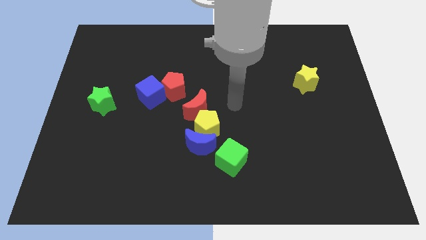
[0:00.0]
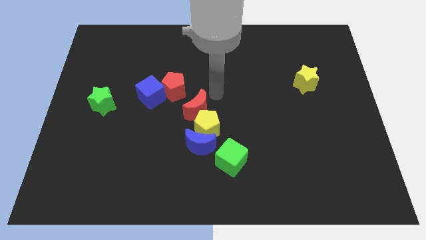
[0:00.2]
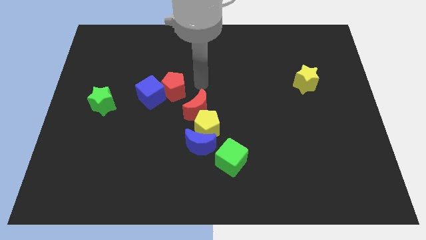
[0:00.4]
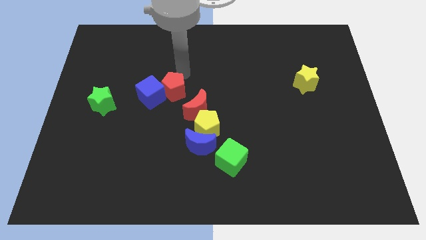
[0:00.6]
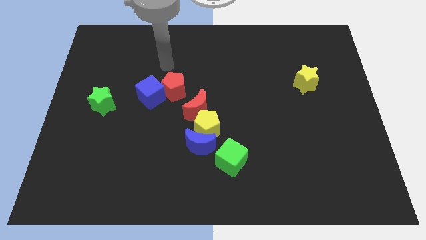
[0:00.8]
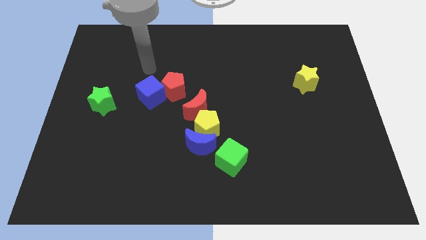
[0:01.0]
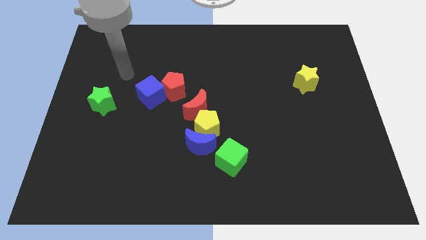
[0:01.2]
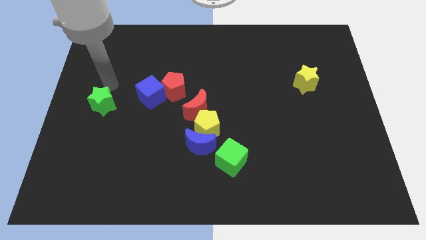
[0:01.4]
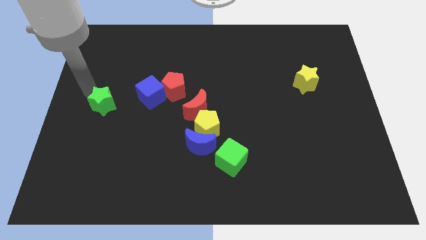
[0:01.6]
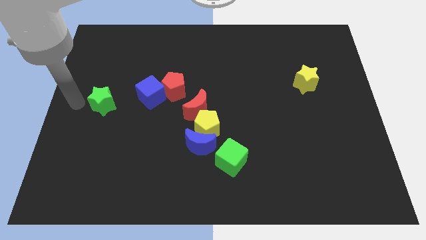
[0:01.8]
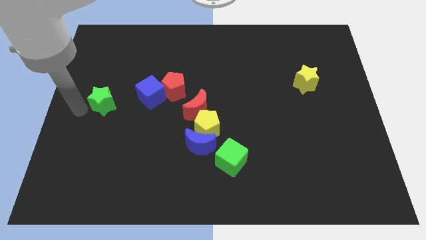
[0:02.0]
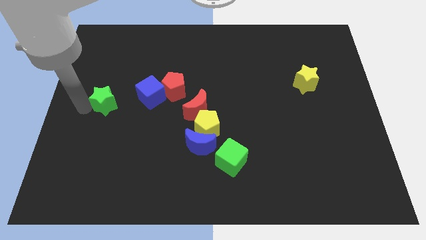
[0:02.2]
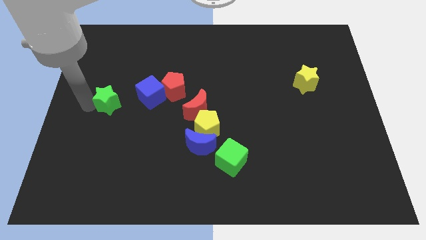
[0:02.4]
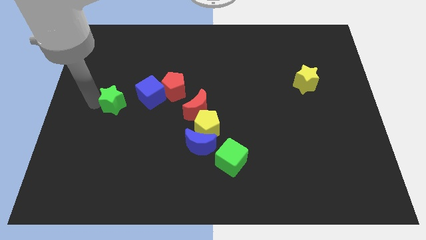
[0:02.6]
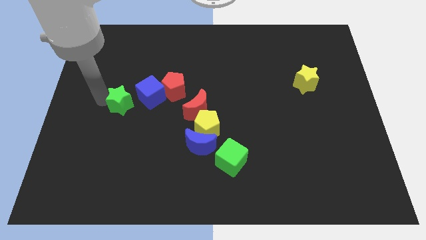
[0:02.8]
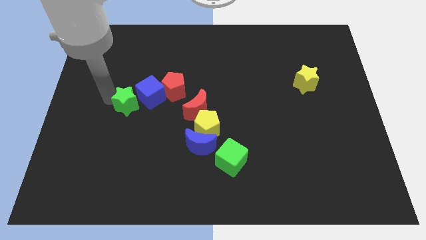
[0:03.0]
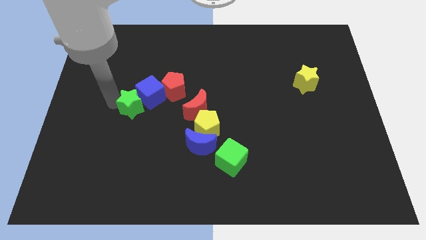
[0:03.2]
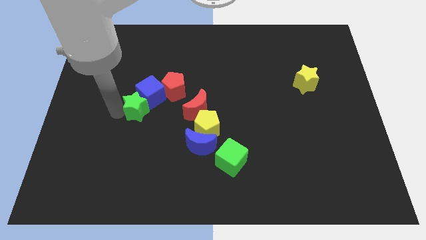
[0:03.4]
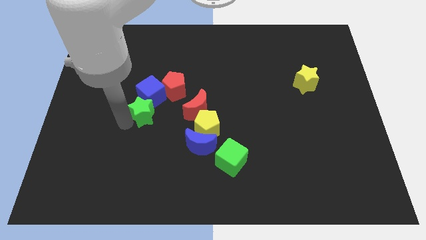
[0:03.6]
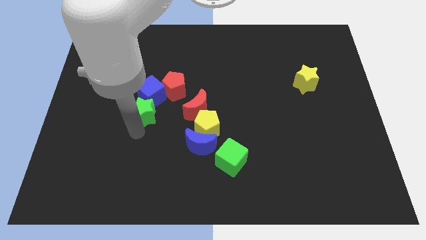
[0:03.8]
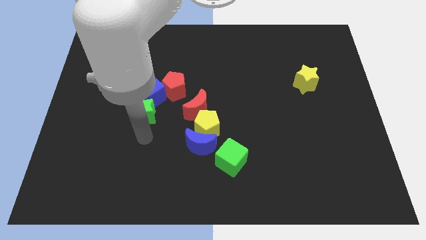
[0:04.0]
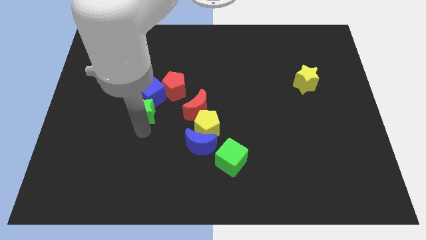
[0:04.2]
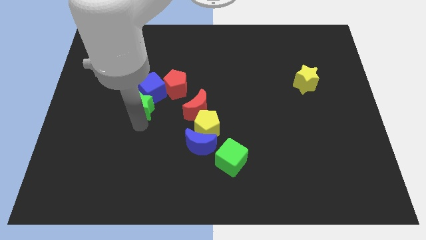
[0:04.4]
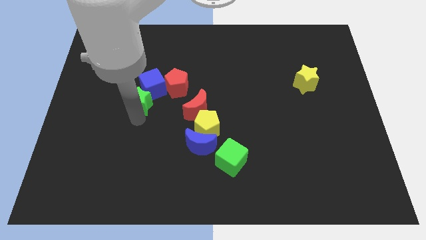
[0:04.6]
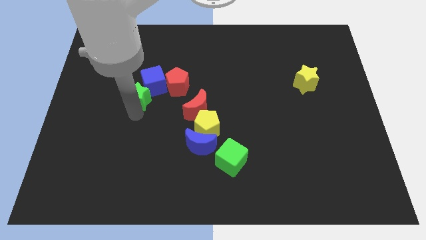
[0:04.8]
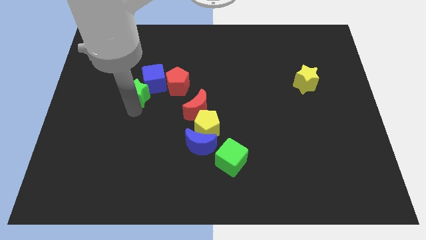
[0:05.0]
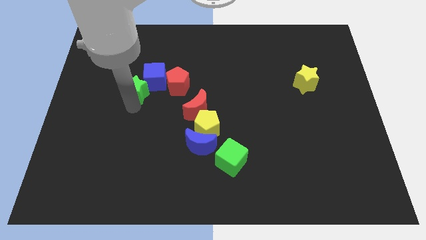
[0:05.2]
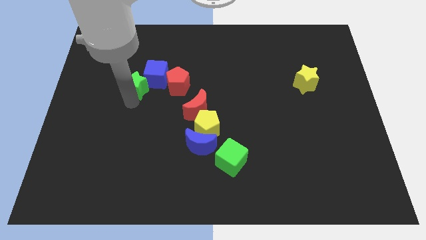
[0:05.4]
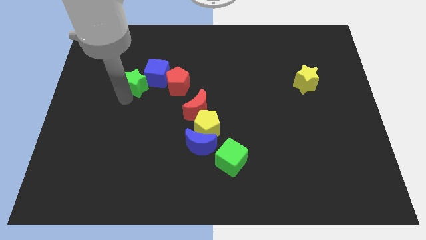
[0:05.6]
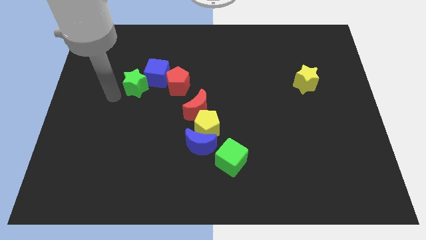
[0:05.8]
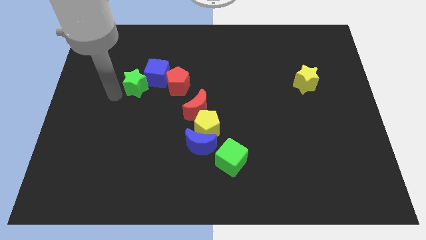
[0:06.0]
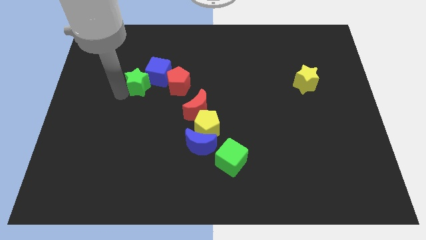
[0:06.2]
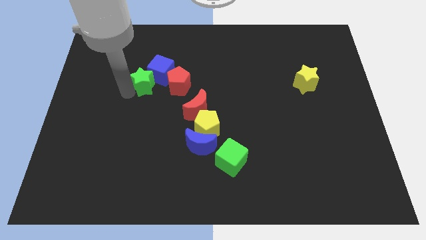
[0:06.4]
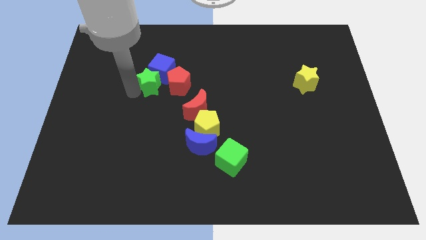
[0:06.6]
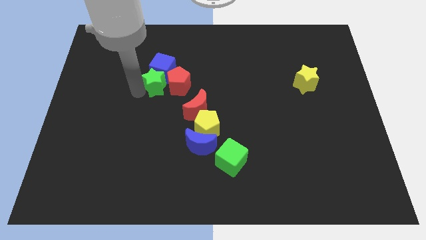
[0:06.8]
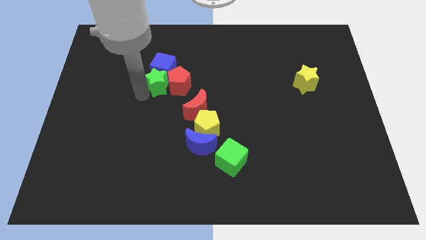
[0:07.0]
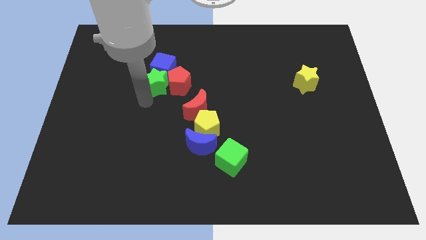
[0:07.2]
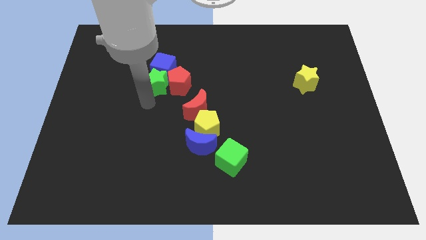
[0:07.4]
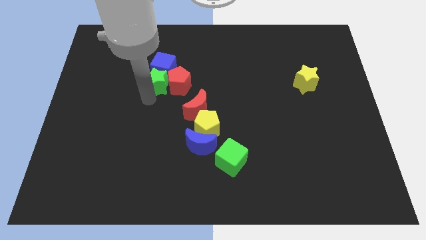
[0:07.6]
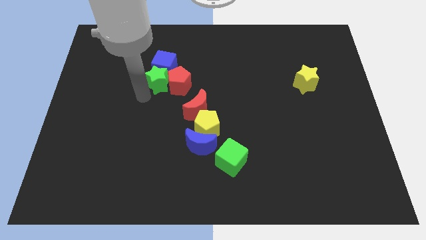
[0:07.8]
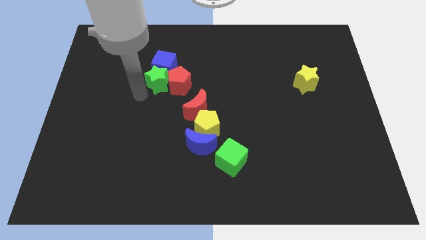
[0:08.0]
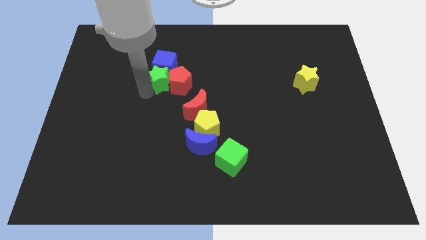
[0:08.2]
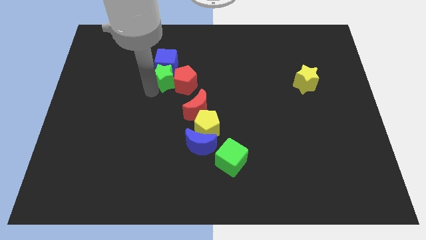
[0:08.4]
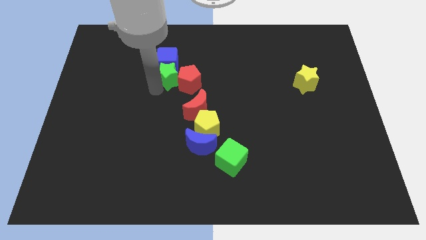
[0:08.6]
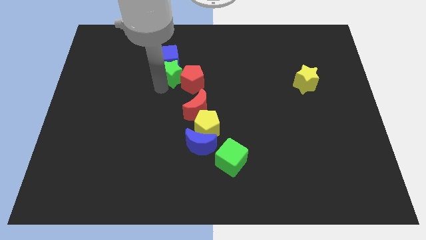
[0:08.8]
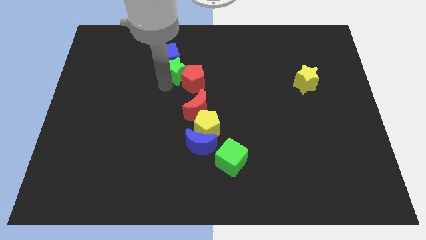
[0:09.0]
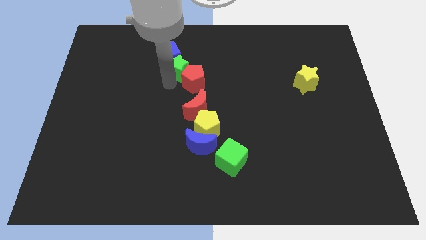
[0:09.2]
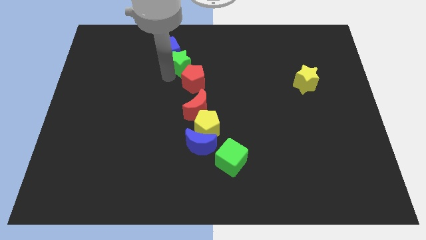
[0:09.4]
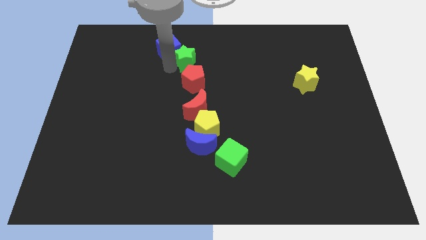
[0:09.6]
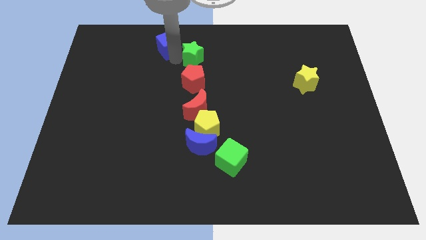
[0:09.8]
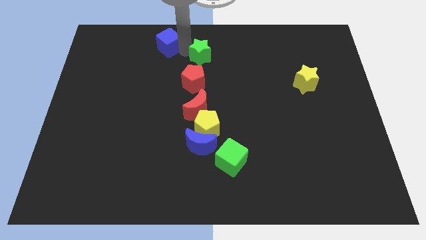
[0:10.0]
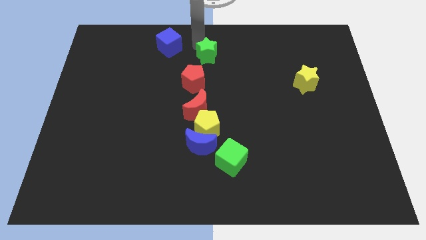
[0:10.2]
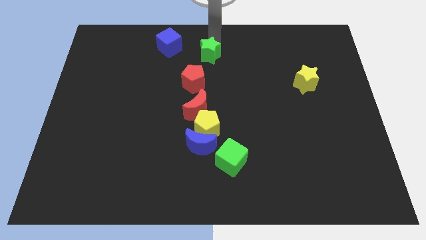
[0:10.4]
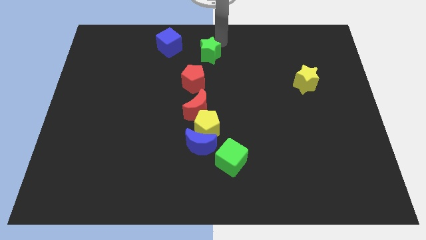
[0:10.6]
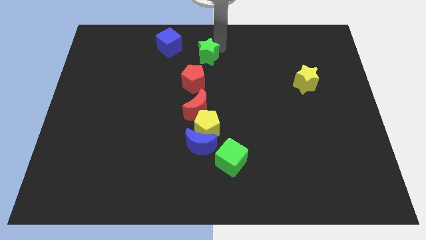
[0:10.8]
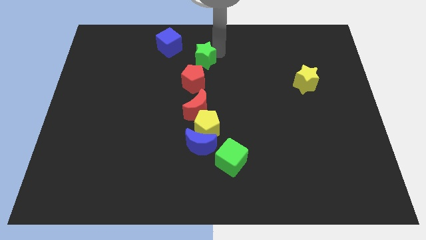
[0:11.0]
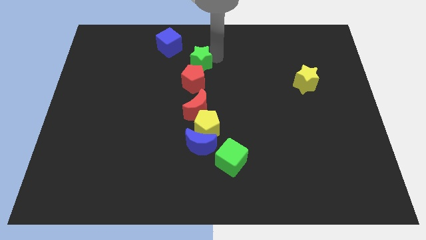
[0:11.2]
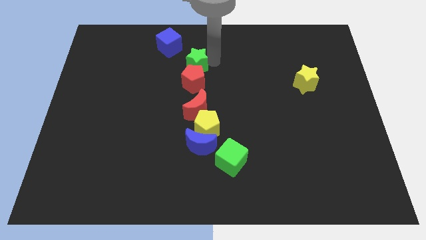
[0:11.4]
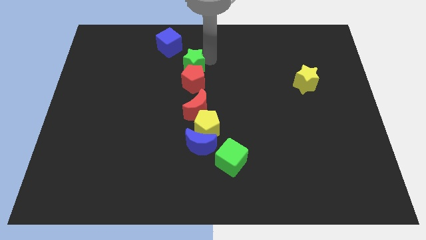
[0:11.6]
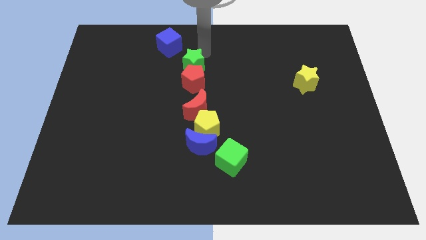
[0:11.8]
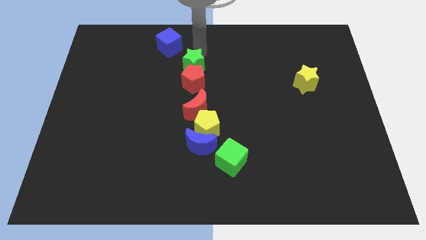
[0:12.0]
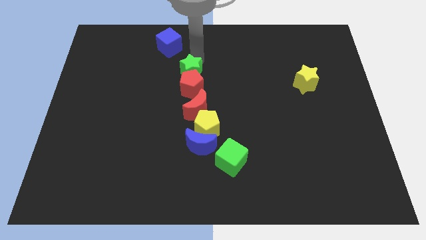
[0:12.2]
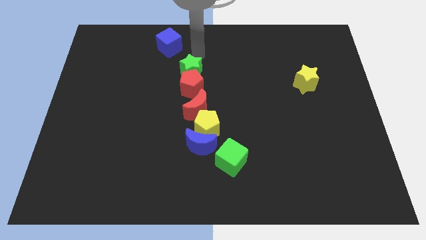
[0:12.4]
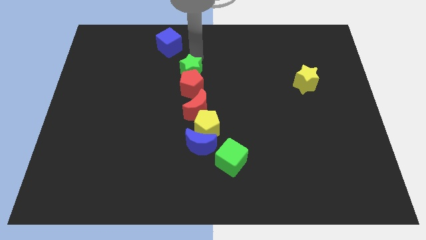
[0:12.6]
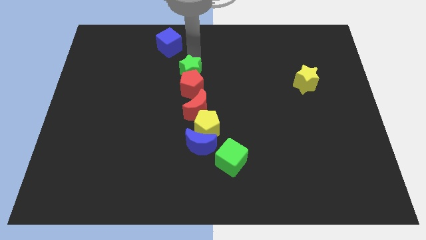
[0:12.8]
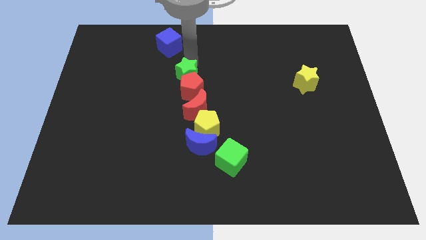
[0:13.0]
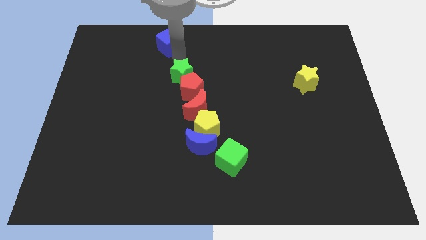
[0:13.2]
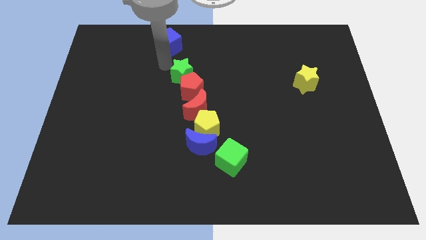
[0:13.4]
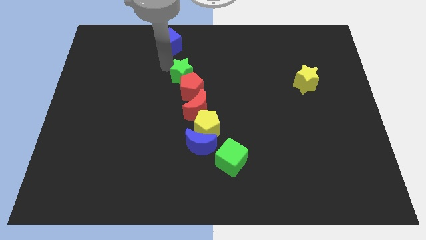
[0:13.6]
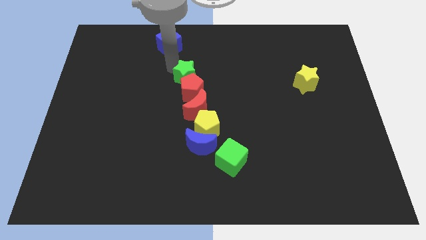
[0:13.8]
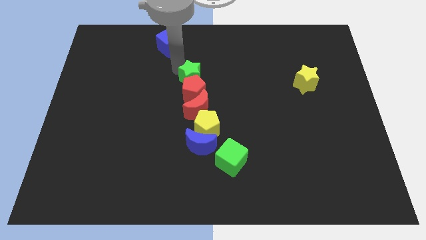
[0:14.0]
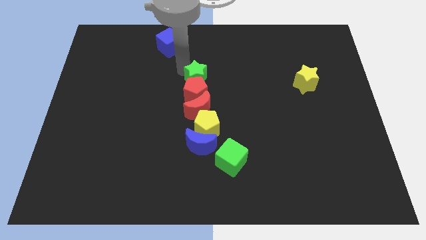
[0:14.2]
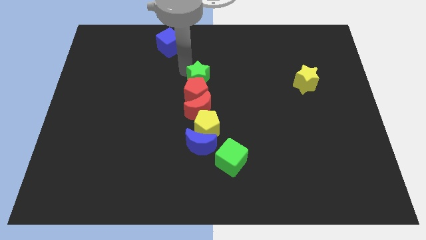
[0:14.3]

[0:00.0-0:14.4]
slide the green star to the right

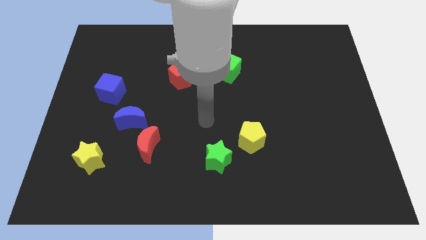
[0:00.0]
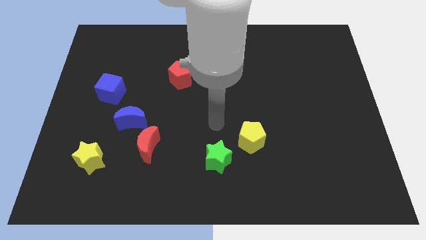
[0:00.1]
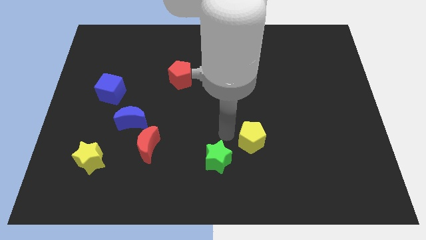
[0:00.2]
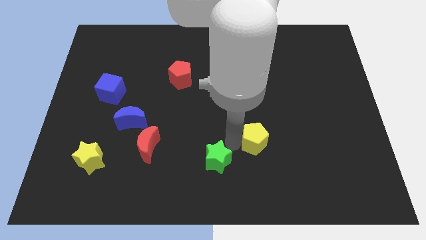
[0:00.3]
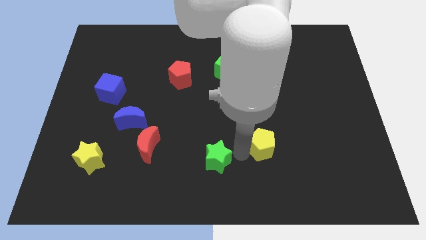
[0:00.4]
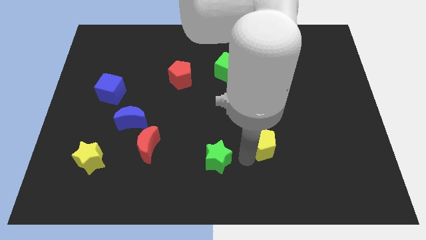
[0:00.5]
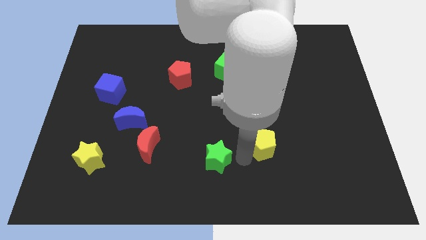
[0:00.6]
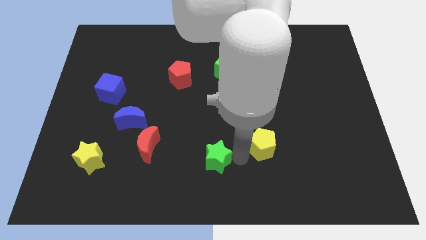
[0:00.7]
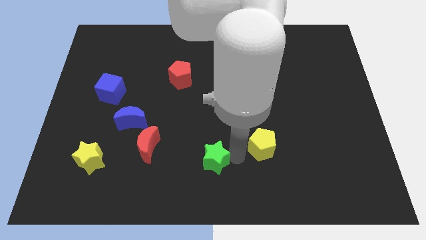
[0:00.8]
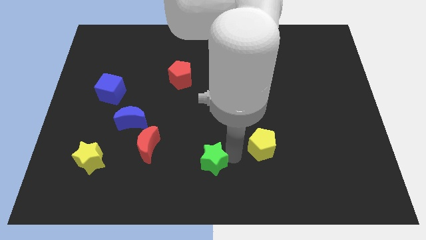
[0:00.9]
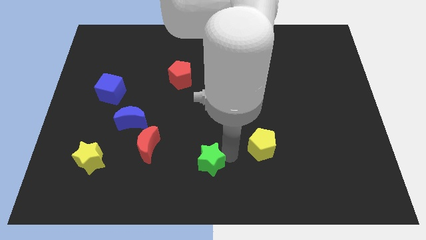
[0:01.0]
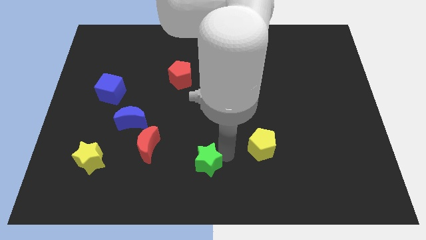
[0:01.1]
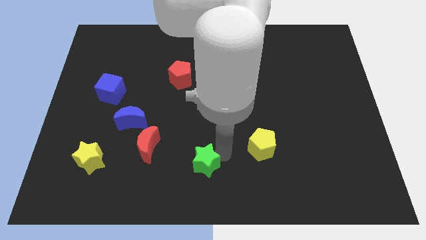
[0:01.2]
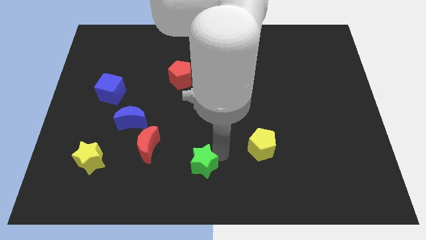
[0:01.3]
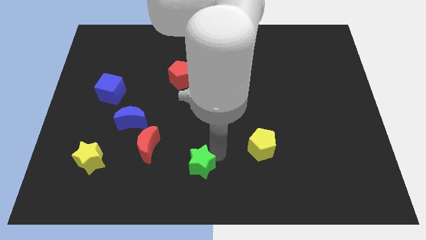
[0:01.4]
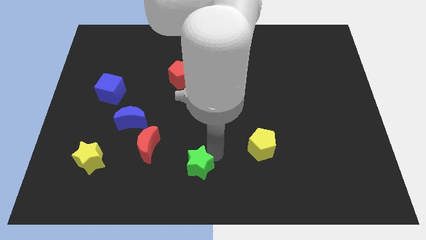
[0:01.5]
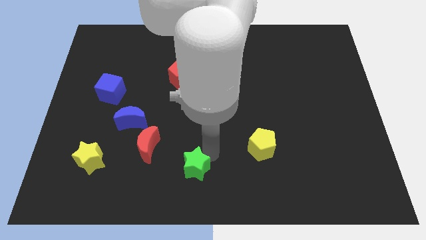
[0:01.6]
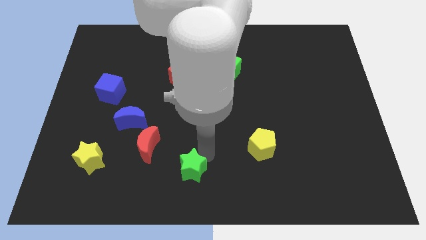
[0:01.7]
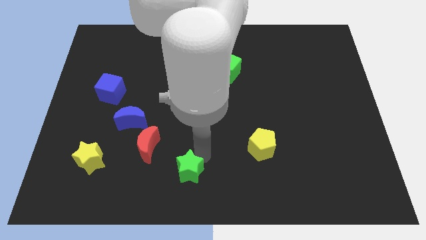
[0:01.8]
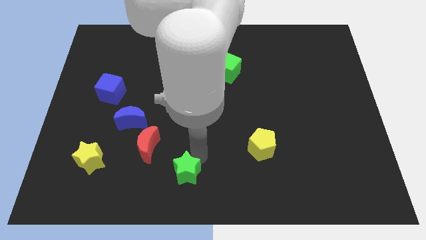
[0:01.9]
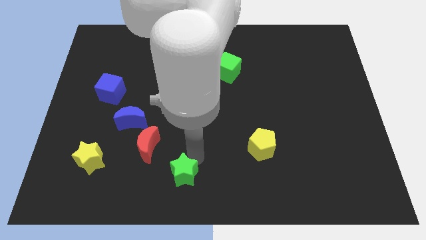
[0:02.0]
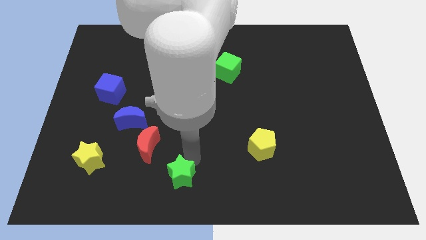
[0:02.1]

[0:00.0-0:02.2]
move the green star a bit to the left
